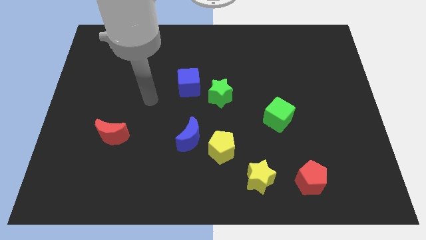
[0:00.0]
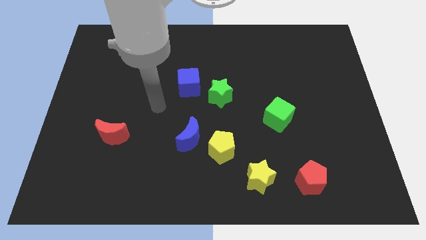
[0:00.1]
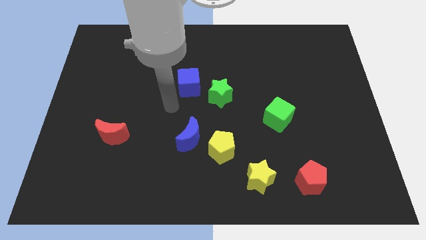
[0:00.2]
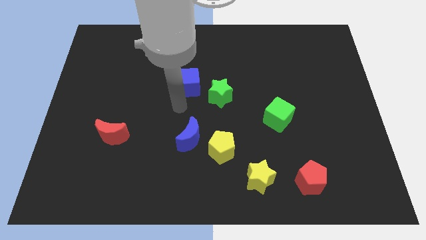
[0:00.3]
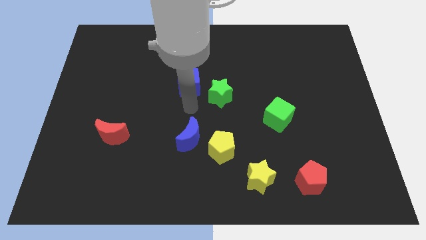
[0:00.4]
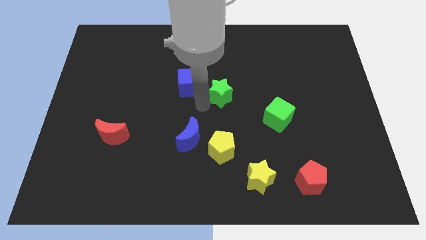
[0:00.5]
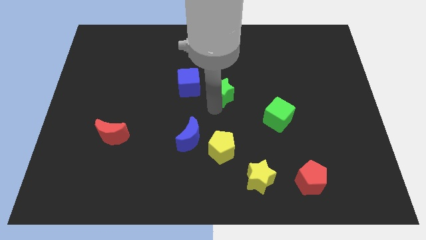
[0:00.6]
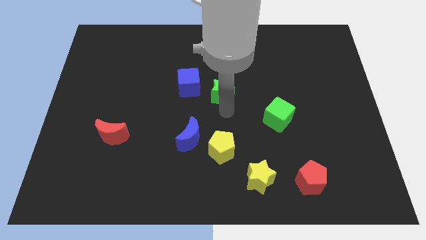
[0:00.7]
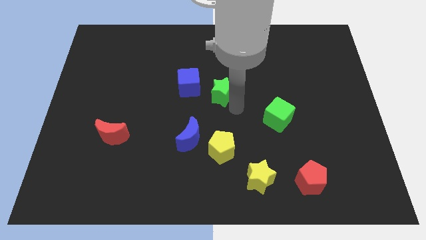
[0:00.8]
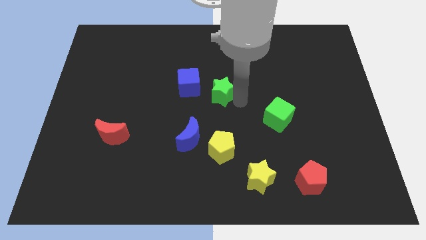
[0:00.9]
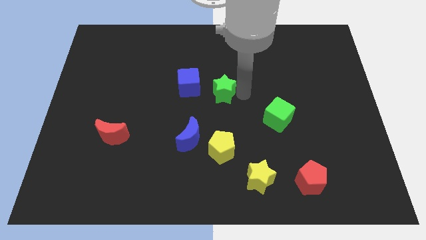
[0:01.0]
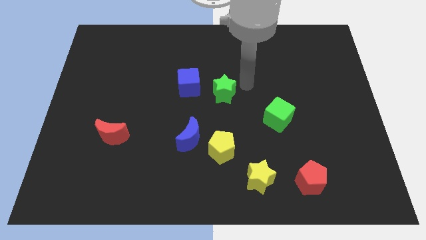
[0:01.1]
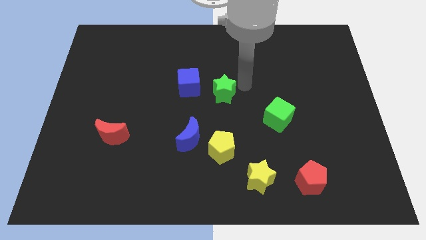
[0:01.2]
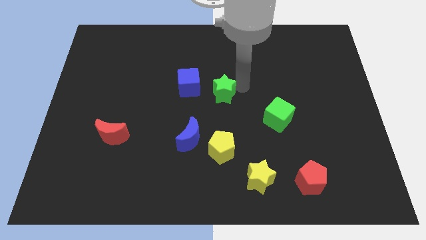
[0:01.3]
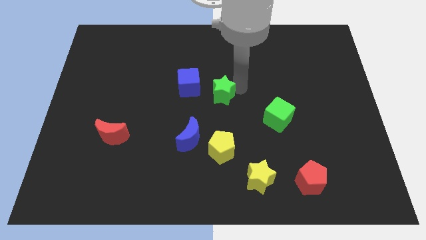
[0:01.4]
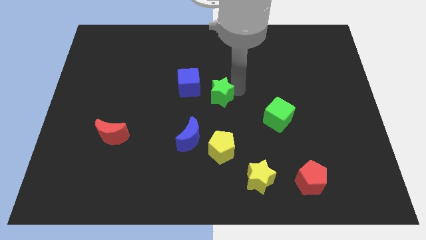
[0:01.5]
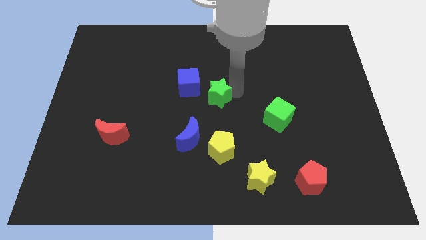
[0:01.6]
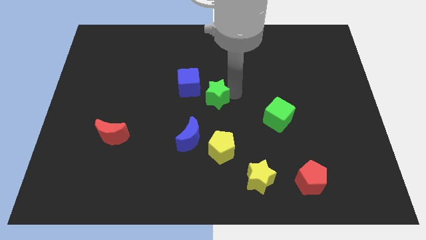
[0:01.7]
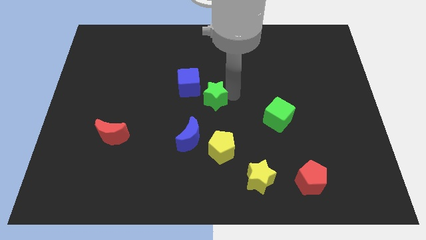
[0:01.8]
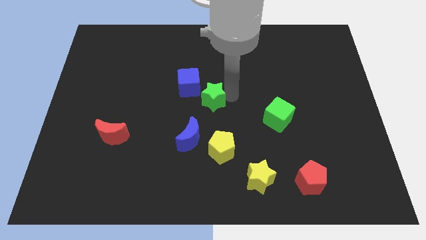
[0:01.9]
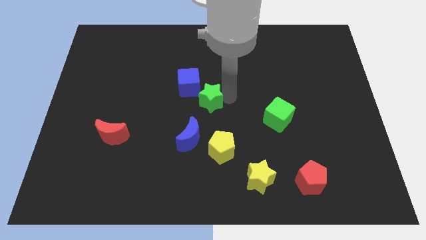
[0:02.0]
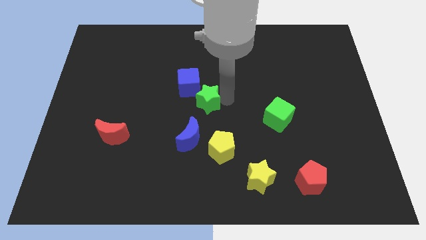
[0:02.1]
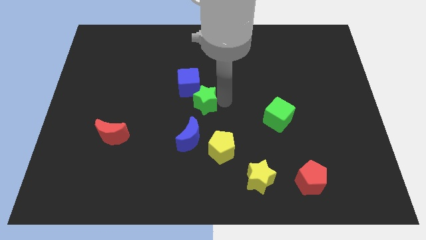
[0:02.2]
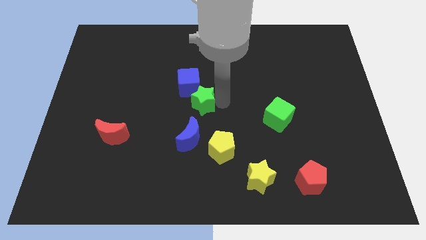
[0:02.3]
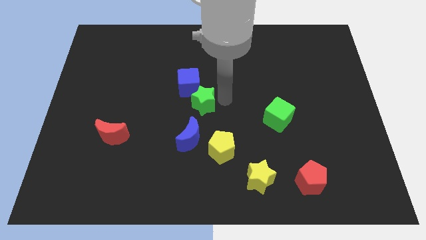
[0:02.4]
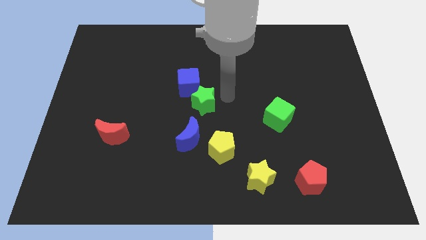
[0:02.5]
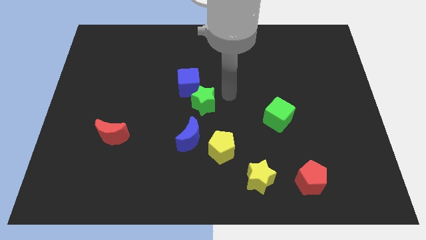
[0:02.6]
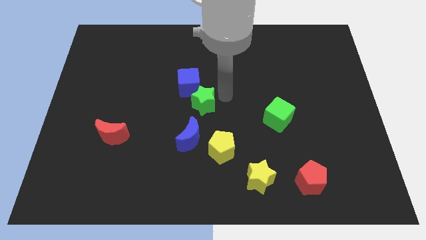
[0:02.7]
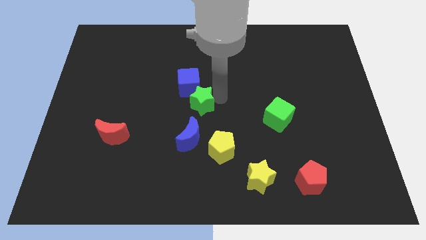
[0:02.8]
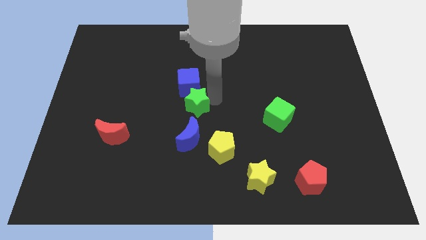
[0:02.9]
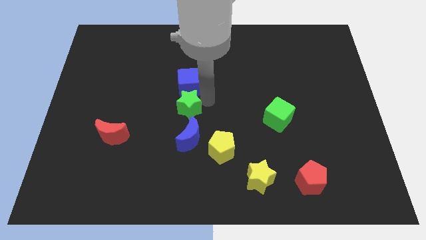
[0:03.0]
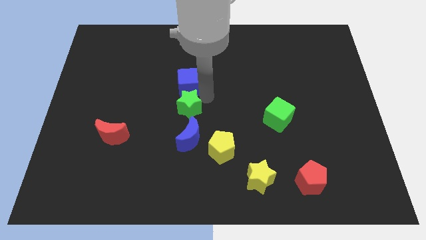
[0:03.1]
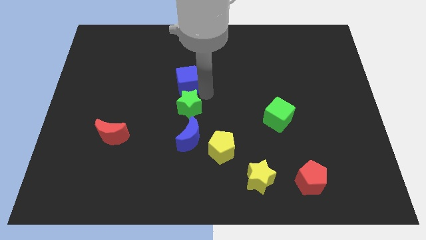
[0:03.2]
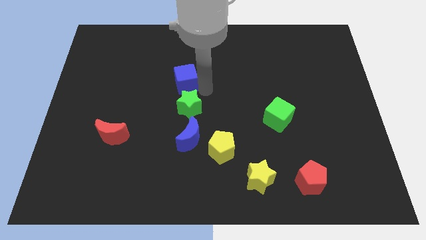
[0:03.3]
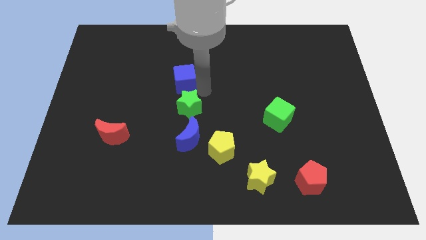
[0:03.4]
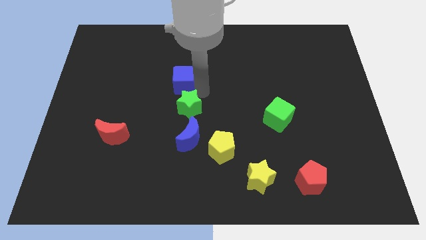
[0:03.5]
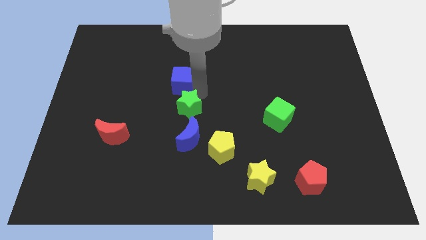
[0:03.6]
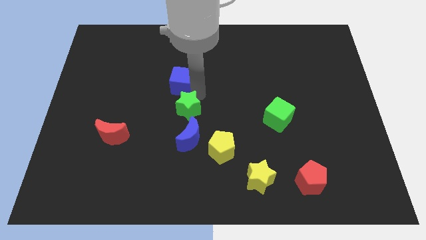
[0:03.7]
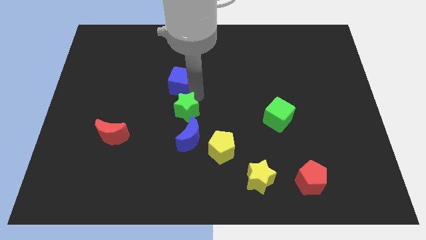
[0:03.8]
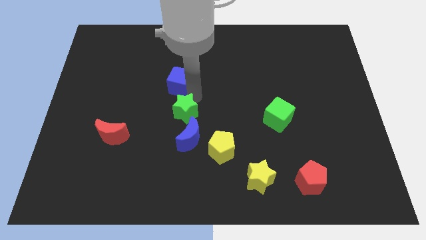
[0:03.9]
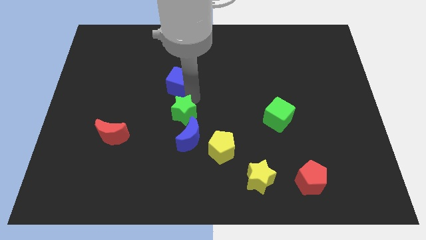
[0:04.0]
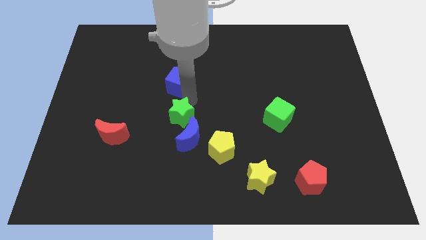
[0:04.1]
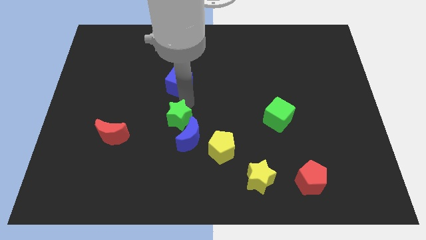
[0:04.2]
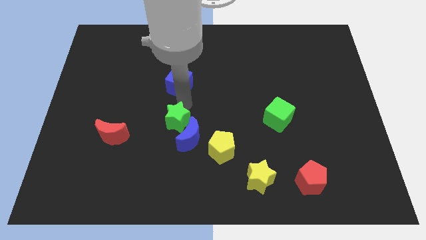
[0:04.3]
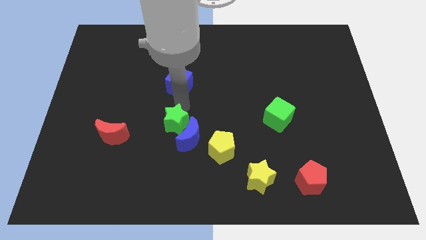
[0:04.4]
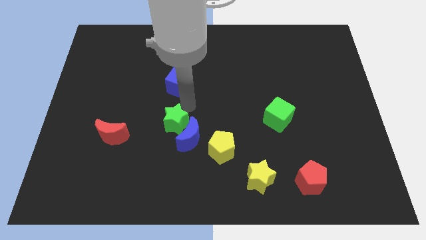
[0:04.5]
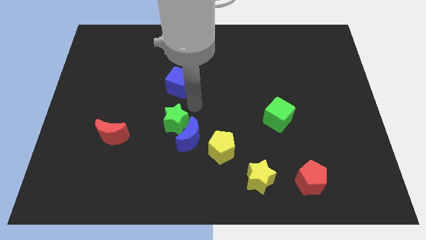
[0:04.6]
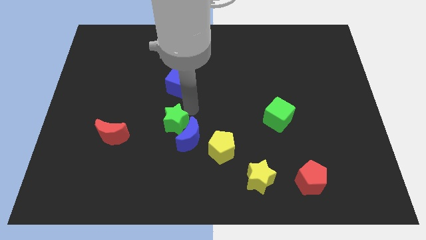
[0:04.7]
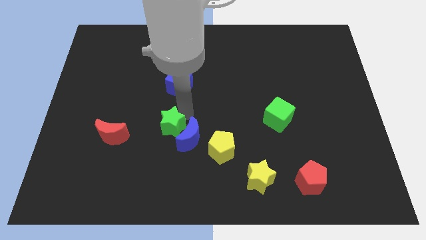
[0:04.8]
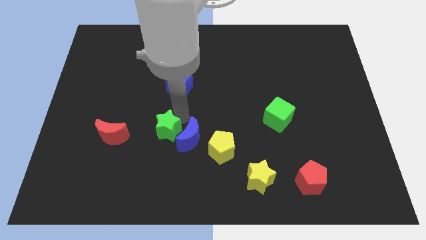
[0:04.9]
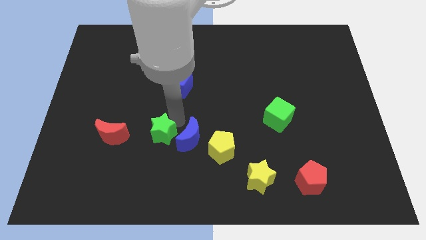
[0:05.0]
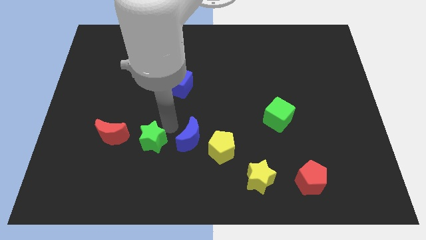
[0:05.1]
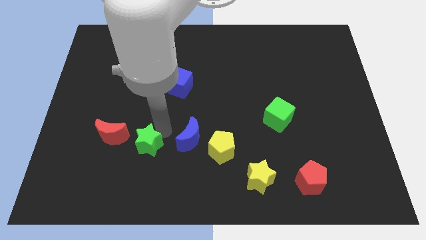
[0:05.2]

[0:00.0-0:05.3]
slide the green star down and to the left diagonally

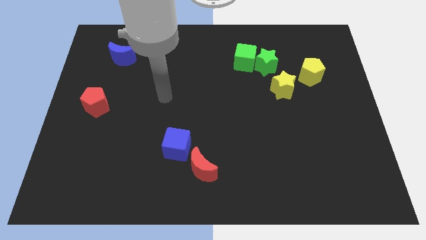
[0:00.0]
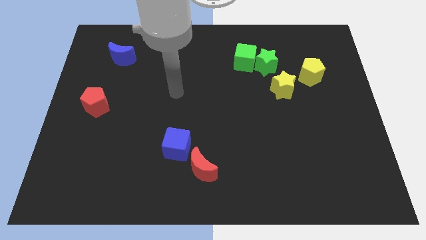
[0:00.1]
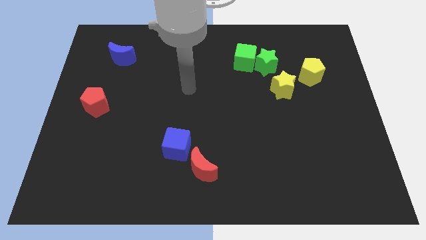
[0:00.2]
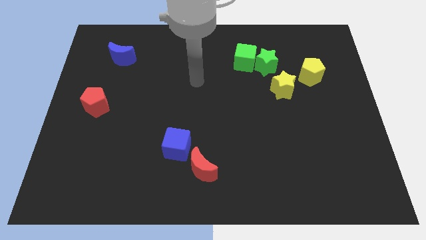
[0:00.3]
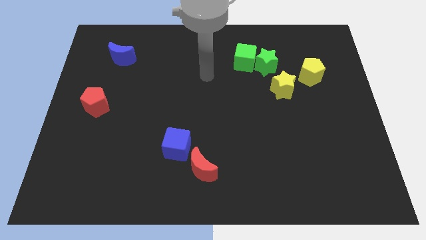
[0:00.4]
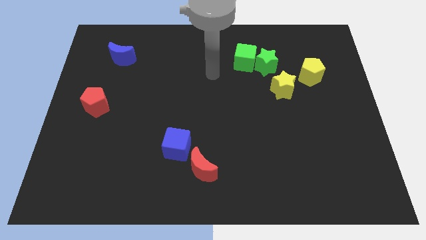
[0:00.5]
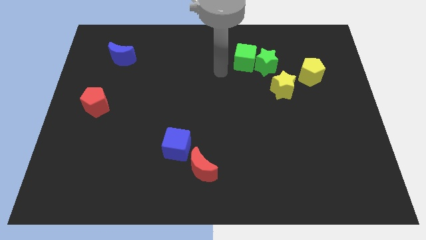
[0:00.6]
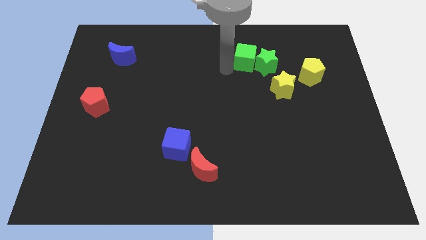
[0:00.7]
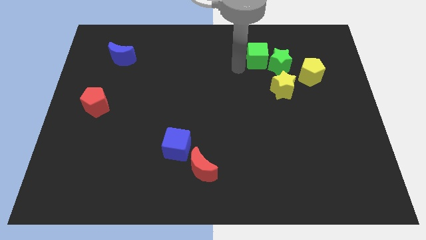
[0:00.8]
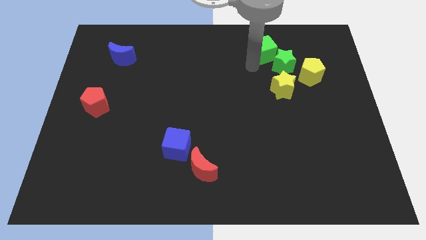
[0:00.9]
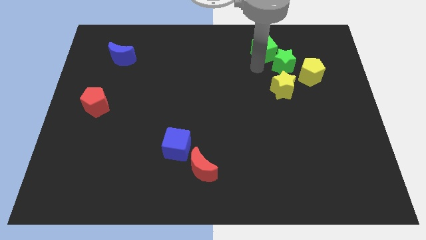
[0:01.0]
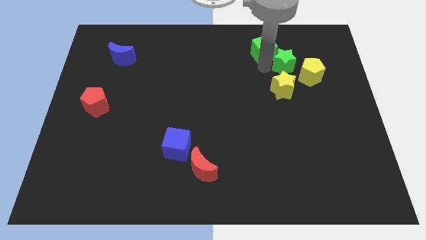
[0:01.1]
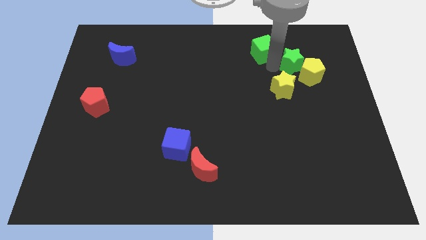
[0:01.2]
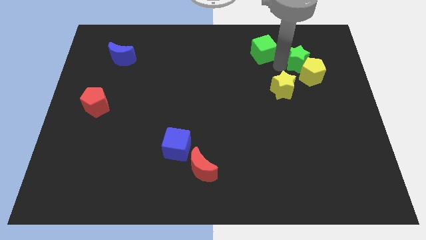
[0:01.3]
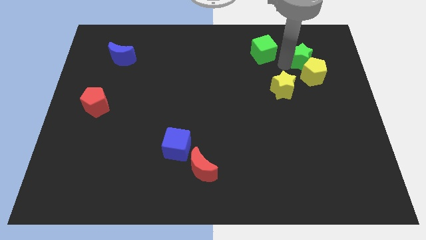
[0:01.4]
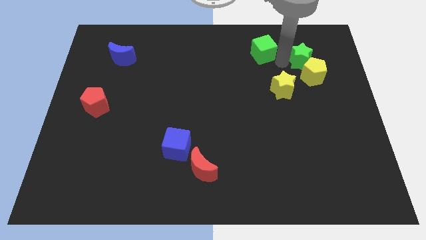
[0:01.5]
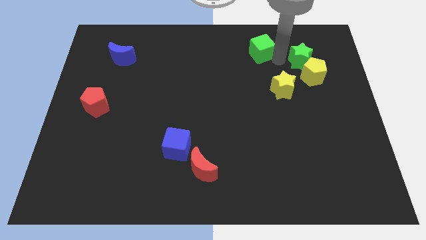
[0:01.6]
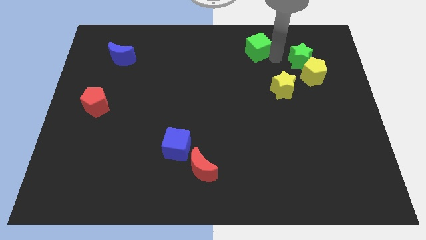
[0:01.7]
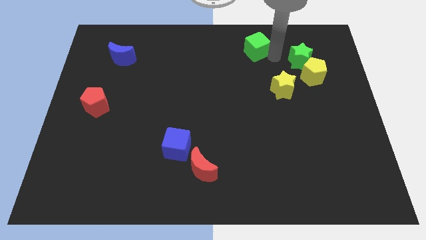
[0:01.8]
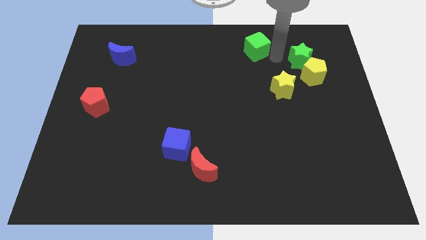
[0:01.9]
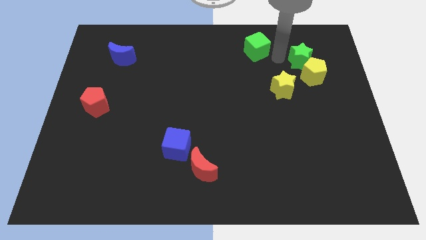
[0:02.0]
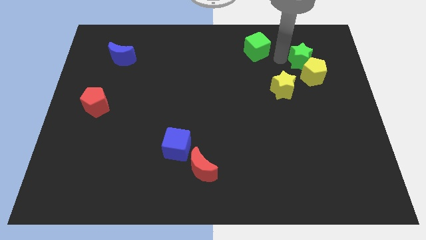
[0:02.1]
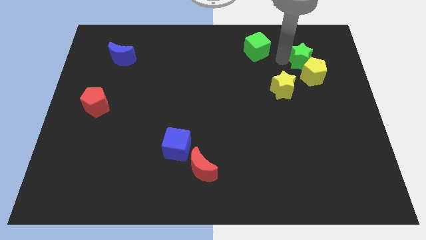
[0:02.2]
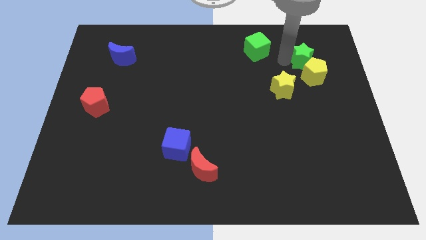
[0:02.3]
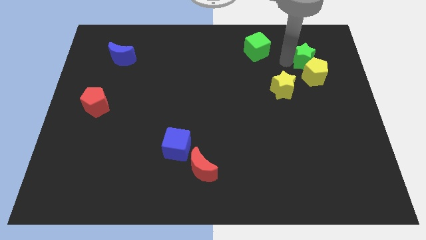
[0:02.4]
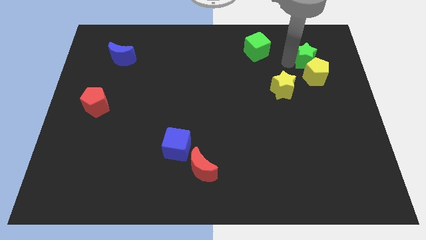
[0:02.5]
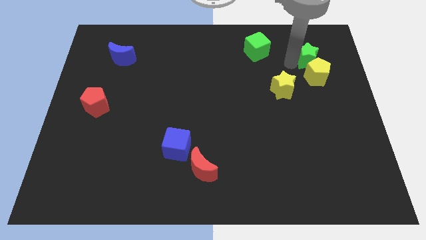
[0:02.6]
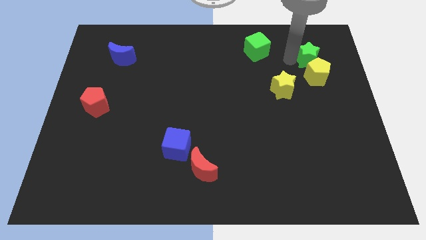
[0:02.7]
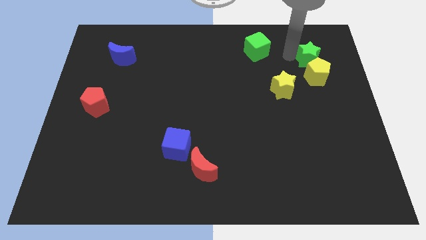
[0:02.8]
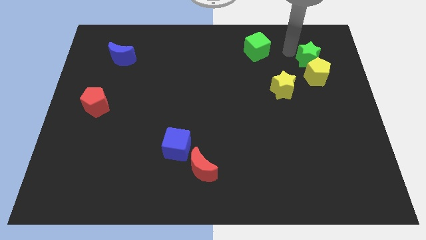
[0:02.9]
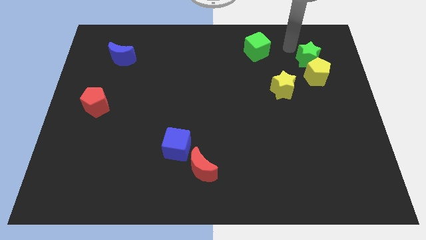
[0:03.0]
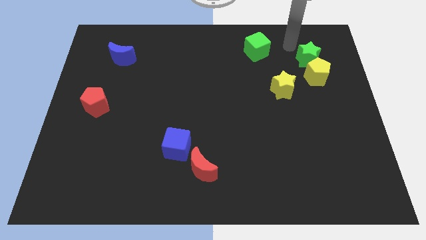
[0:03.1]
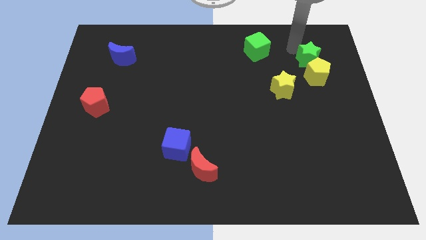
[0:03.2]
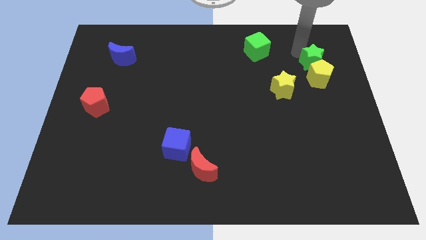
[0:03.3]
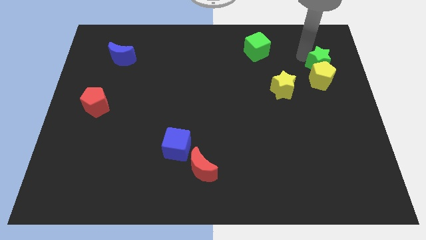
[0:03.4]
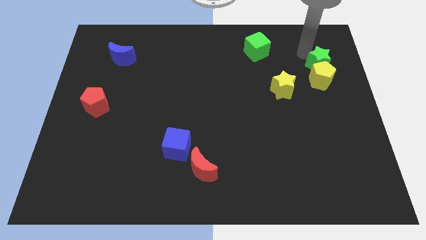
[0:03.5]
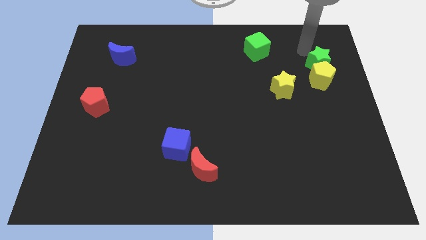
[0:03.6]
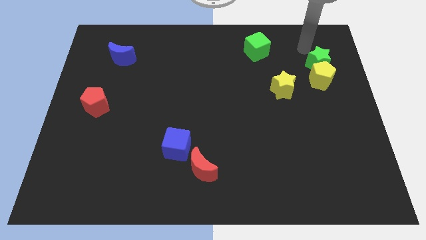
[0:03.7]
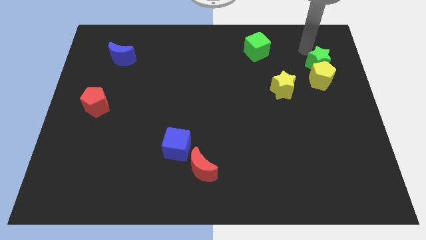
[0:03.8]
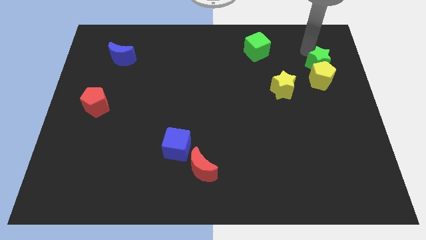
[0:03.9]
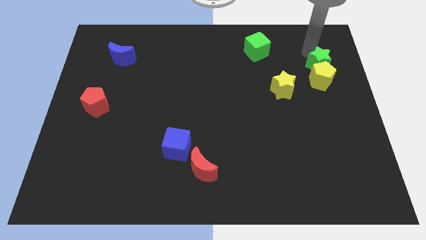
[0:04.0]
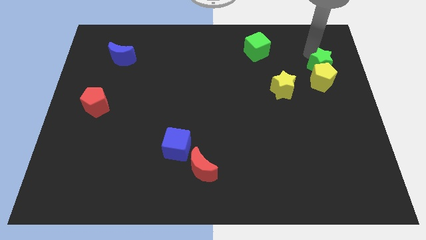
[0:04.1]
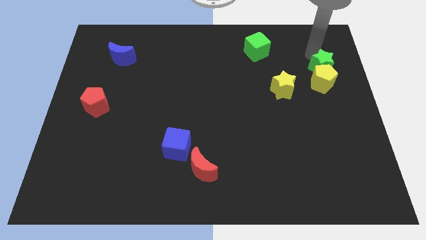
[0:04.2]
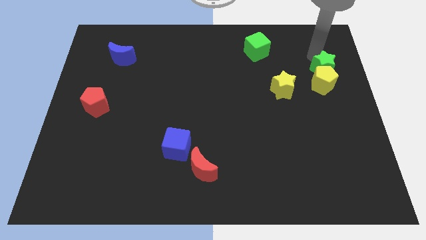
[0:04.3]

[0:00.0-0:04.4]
slide the green star a little downwards and right
